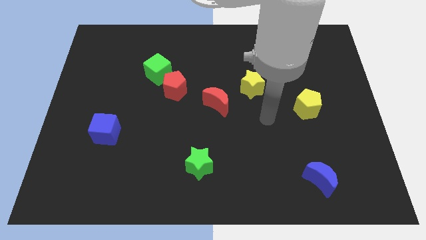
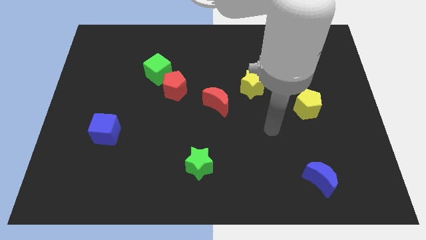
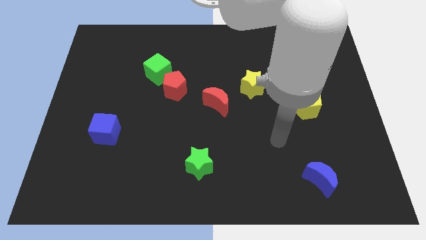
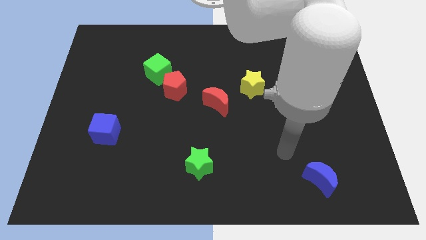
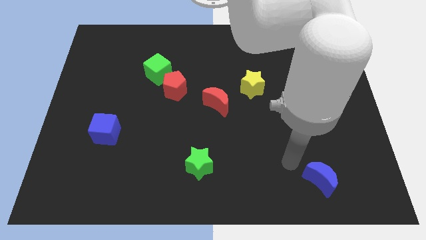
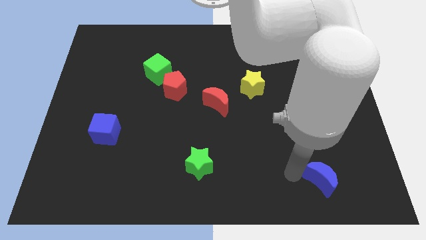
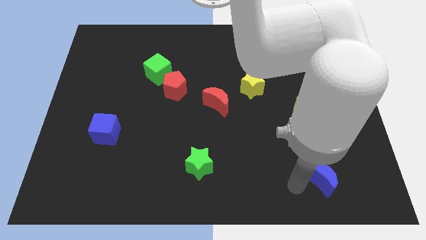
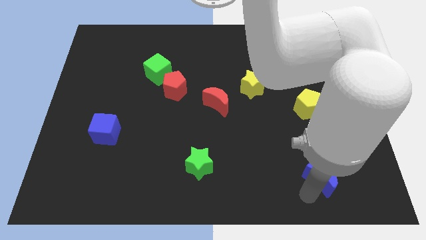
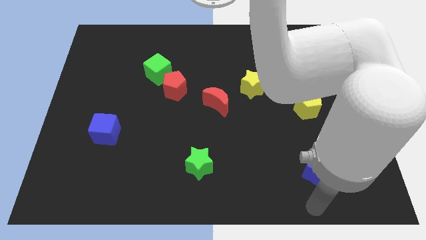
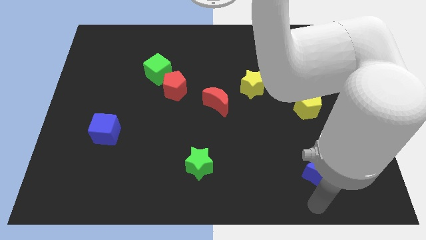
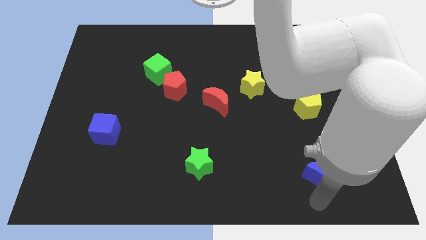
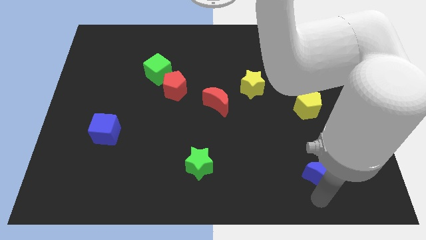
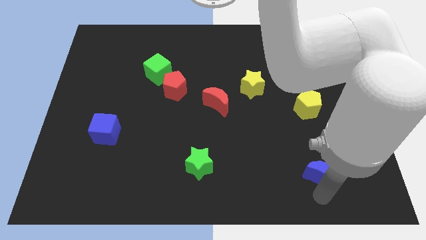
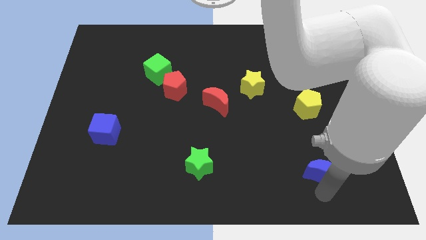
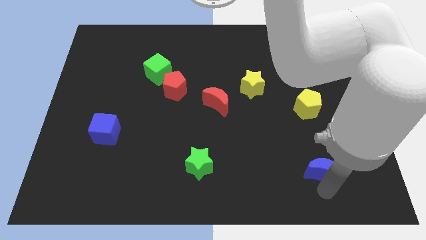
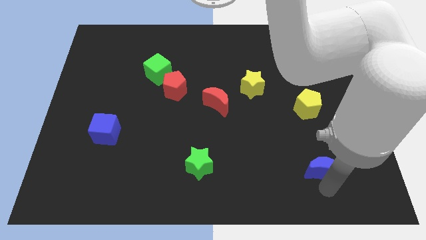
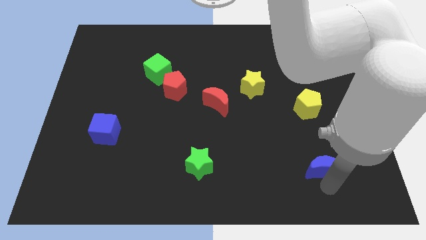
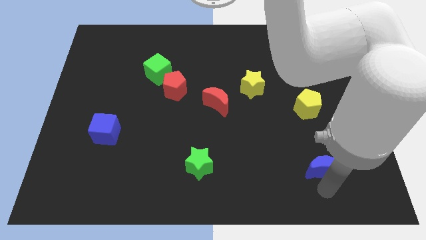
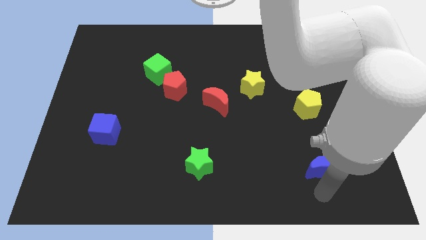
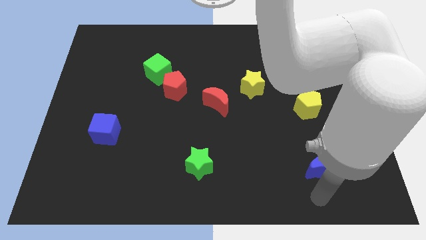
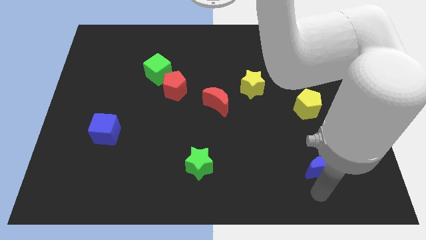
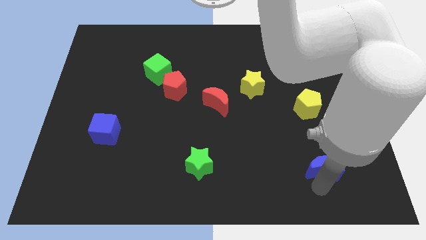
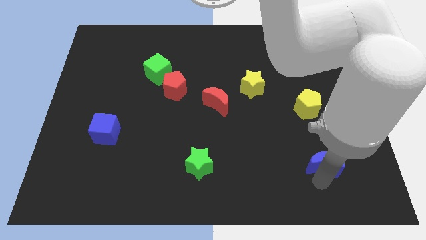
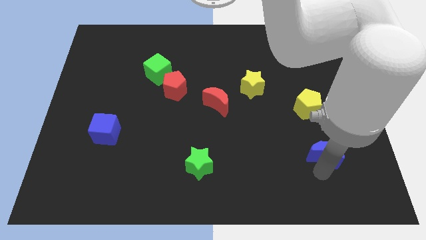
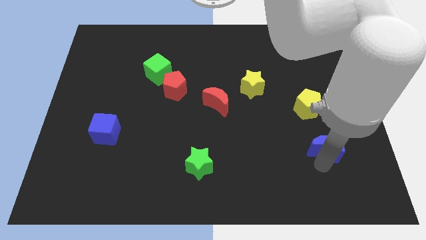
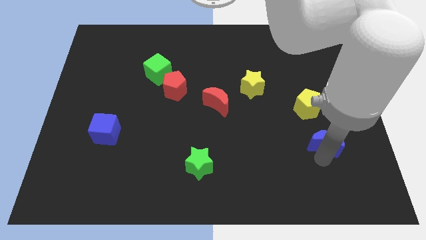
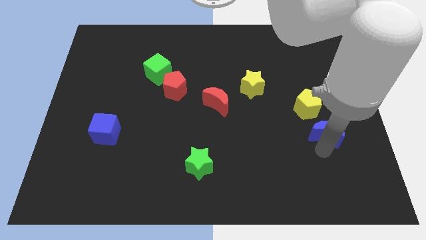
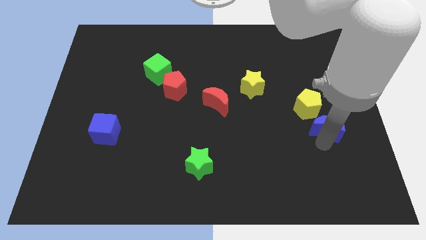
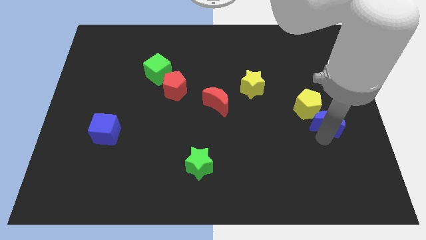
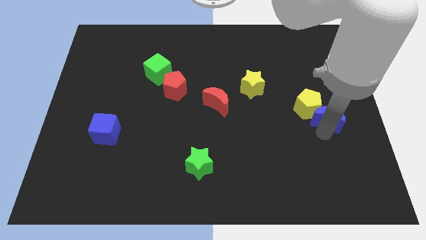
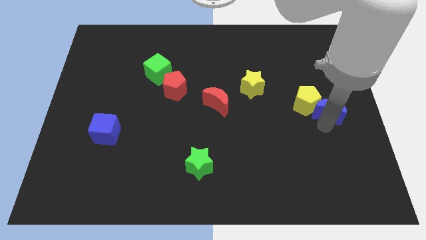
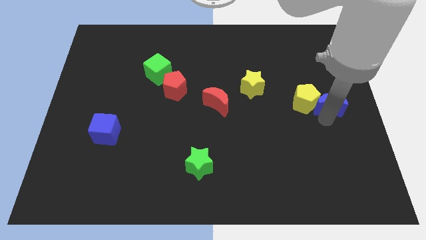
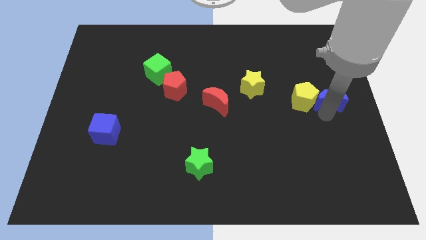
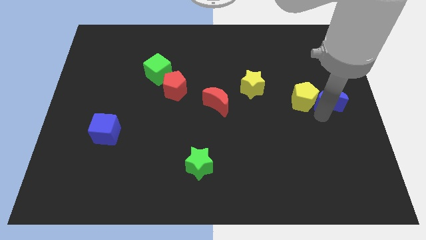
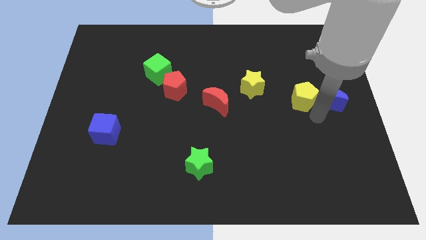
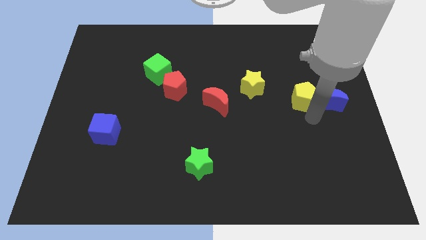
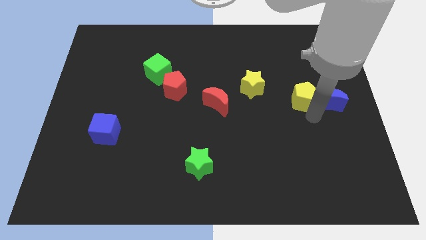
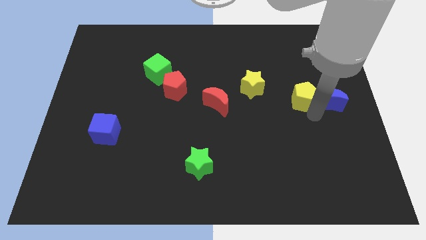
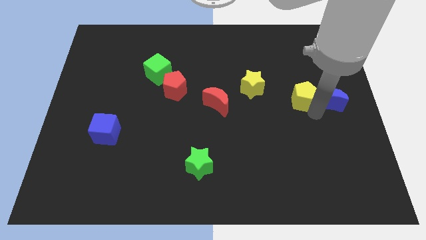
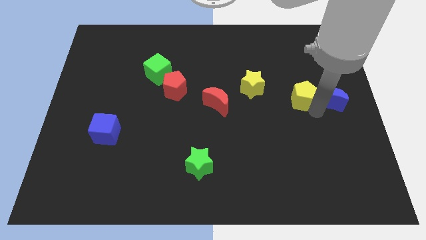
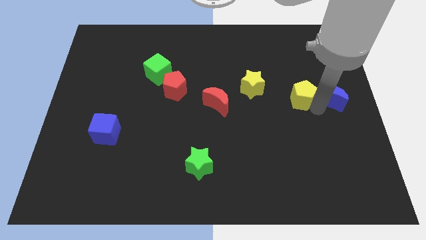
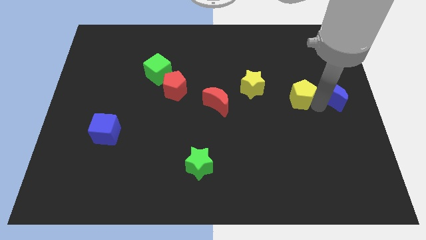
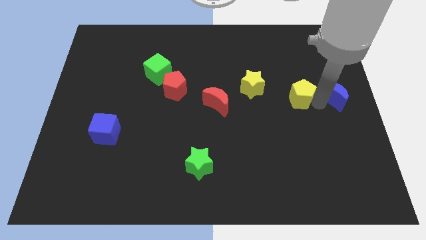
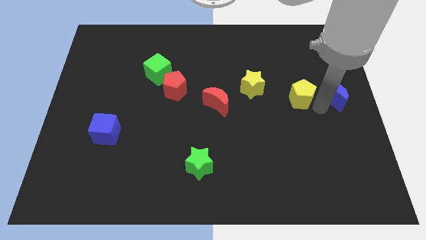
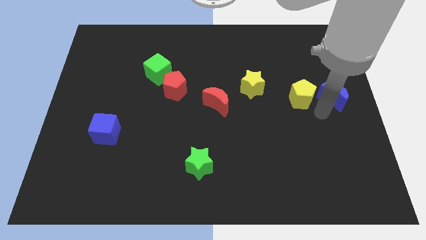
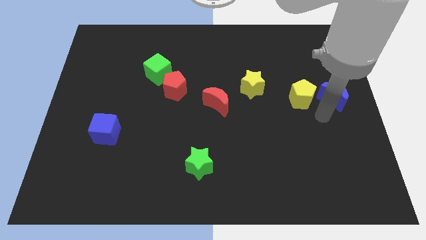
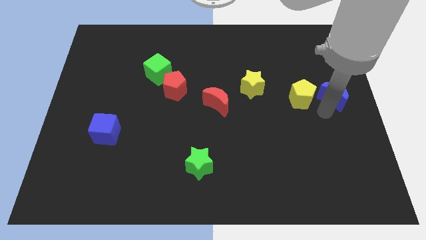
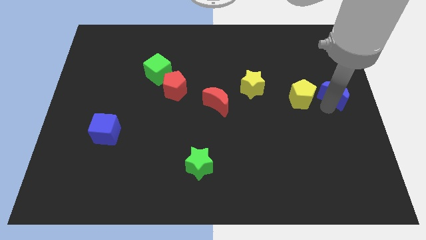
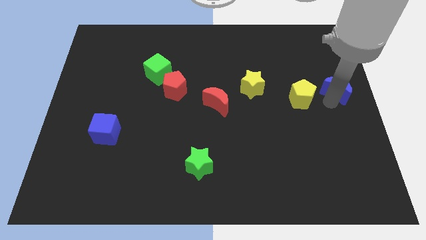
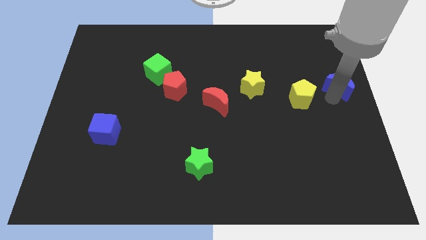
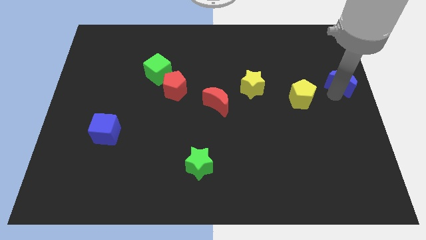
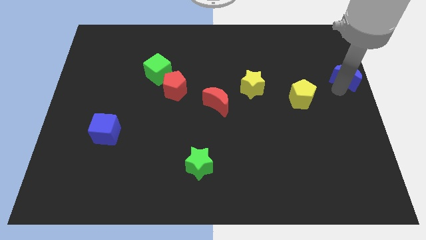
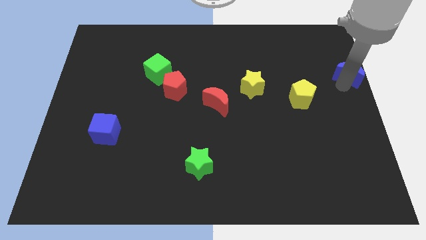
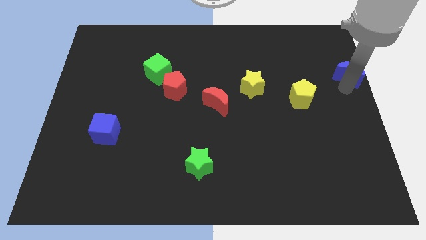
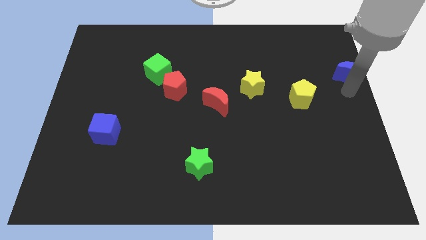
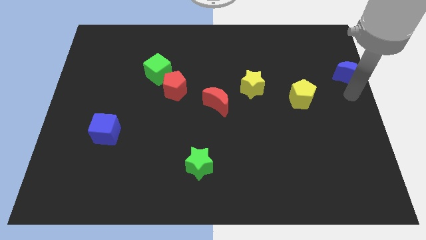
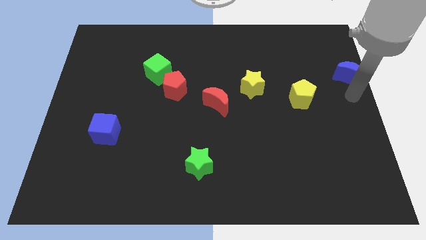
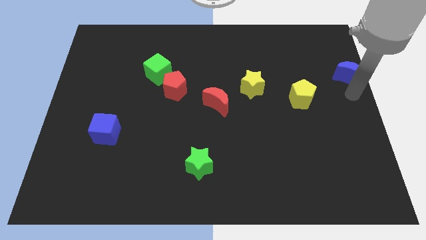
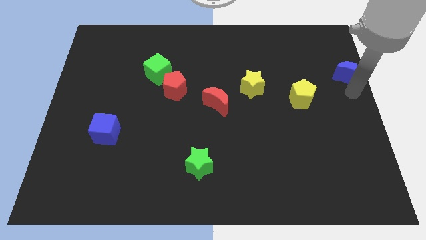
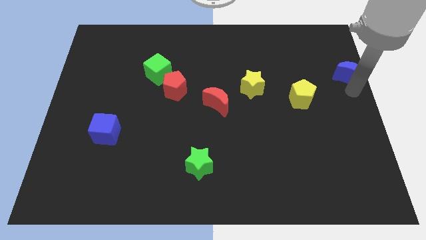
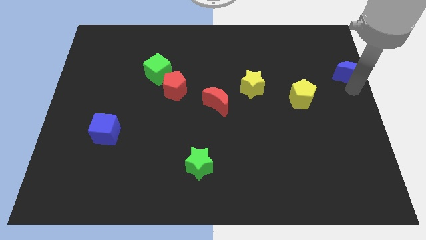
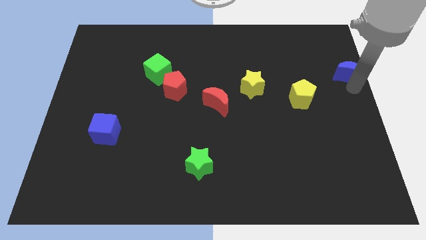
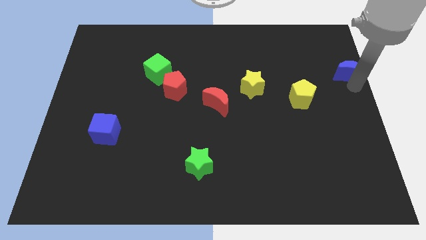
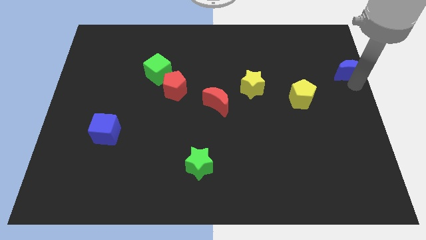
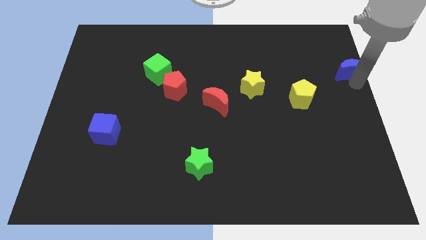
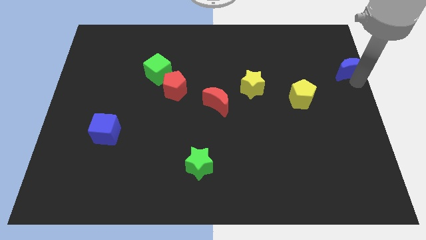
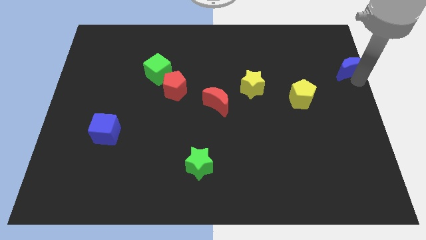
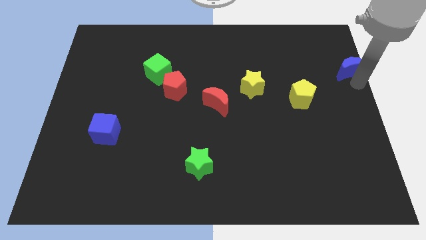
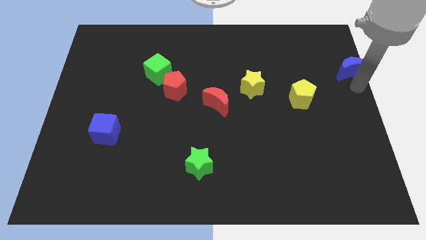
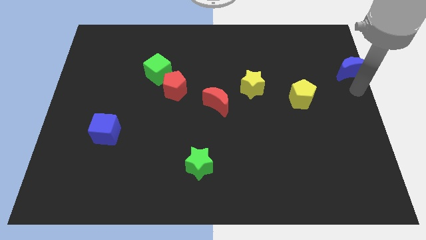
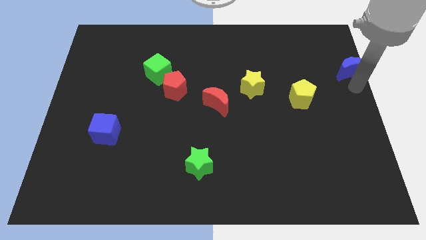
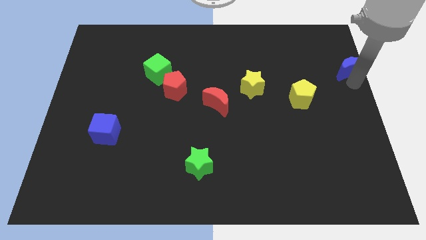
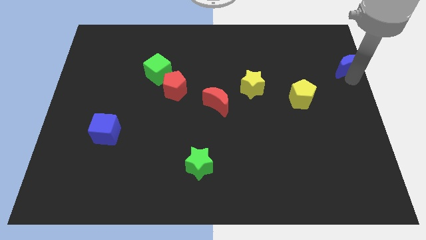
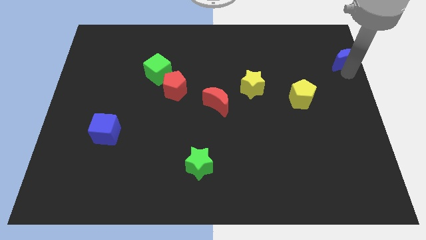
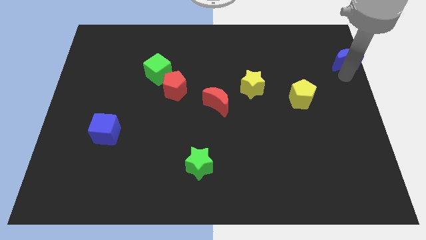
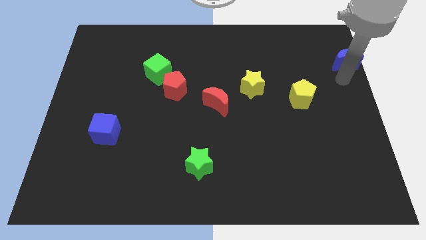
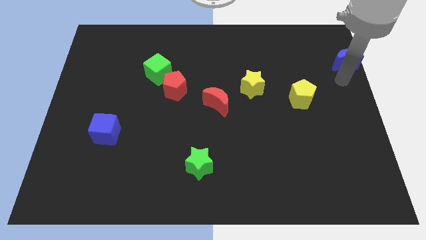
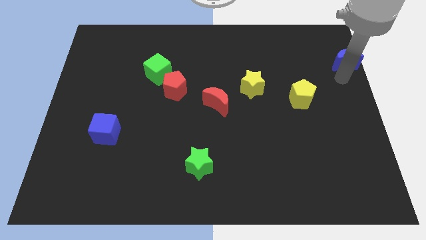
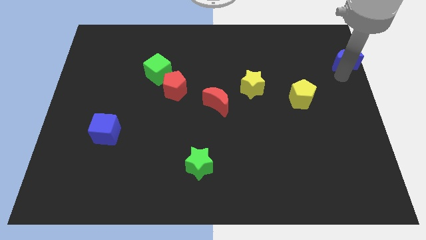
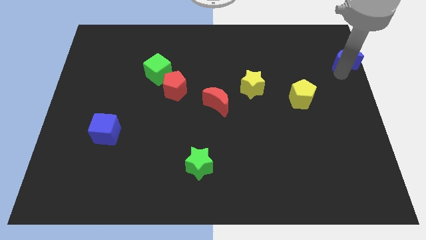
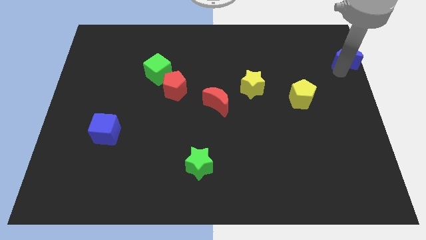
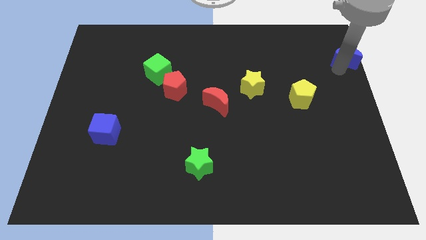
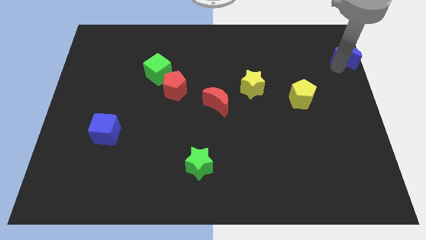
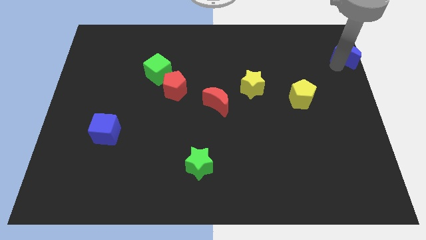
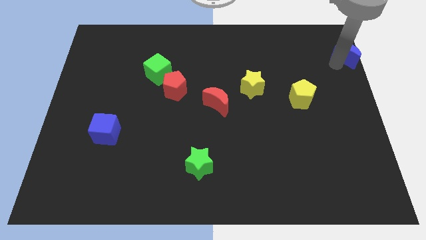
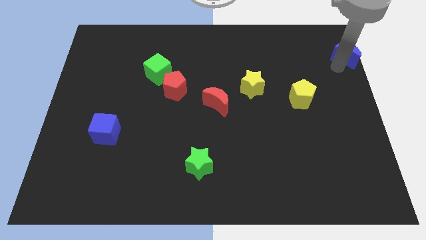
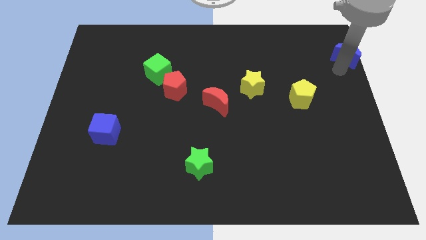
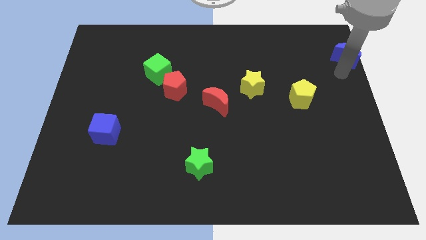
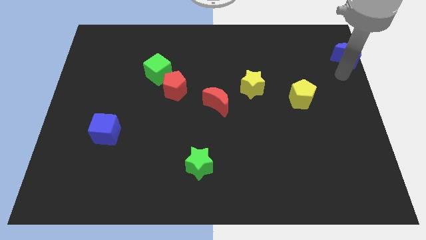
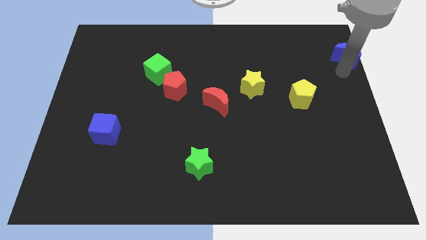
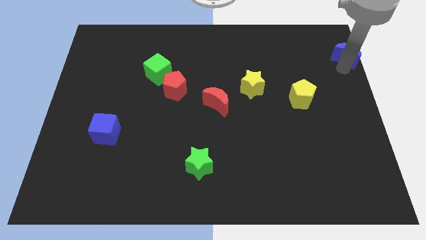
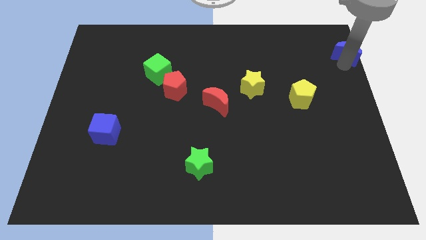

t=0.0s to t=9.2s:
put the blue moon to the upper right corner
